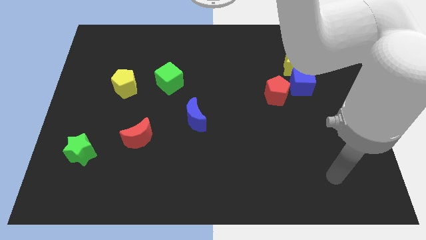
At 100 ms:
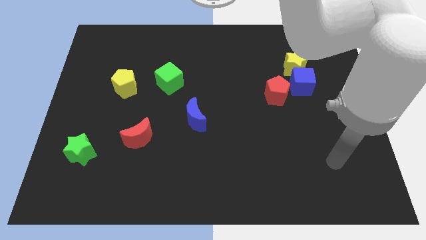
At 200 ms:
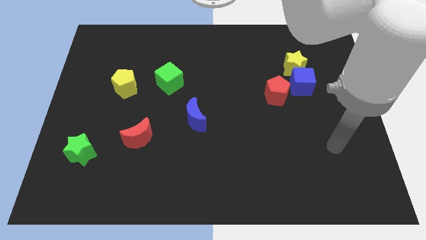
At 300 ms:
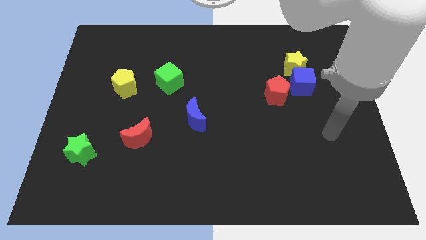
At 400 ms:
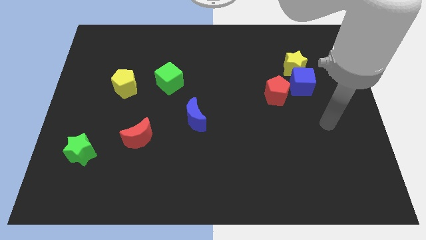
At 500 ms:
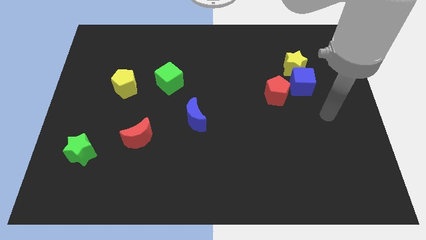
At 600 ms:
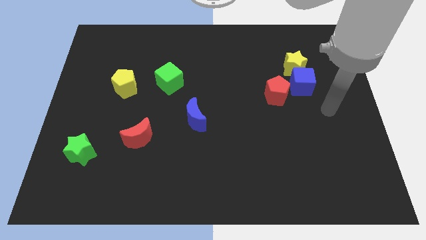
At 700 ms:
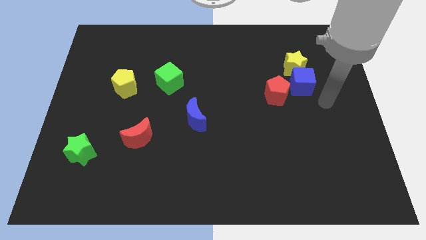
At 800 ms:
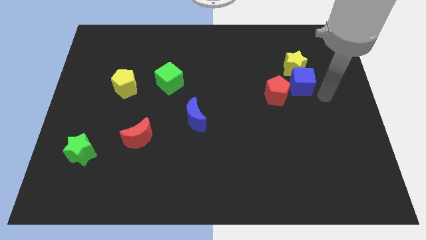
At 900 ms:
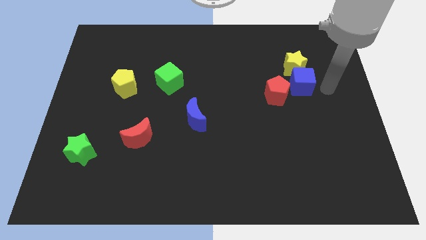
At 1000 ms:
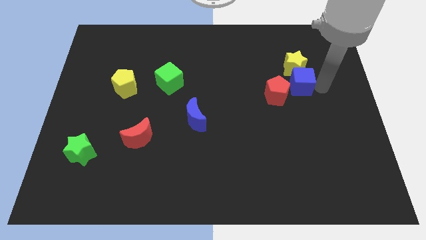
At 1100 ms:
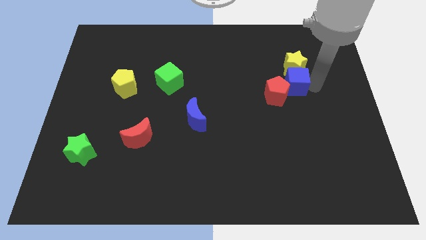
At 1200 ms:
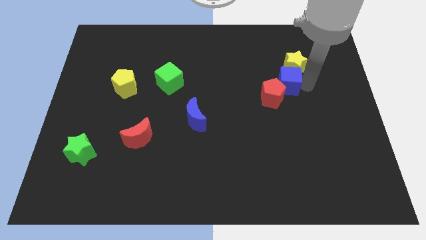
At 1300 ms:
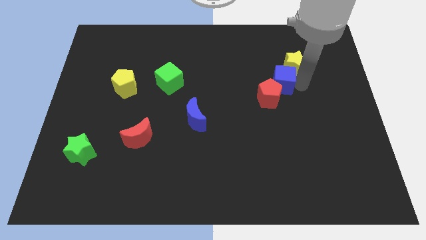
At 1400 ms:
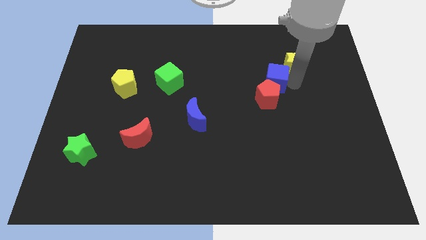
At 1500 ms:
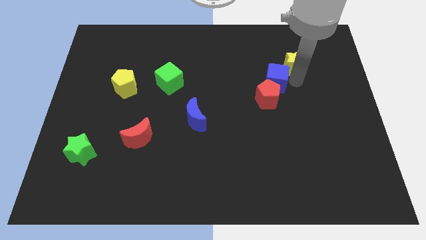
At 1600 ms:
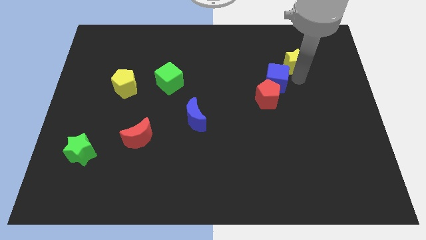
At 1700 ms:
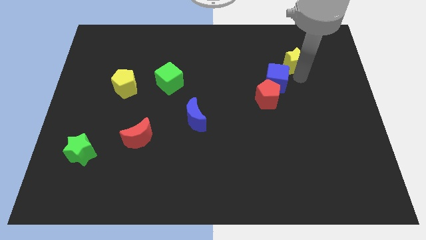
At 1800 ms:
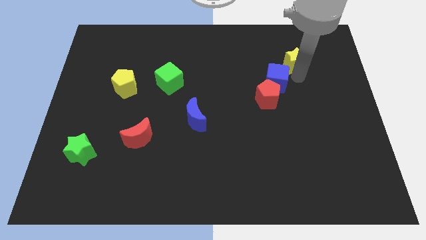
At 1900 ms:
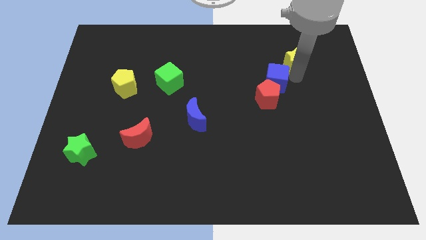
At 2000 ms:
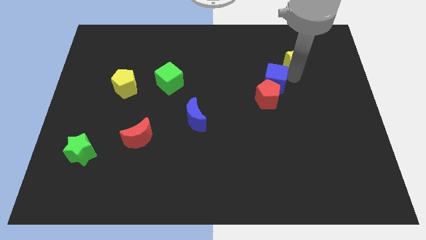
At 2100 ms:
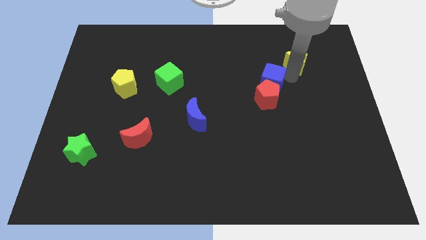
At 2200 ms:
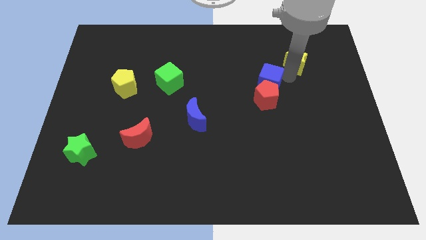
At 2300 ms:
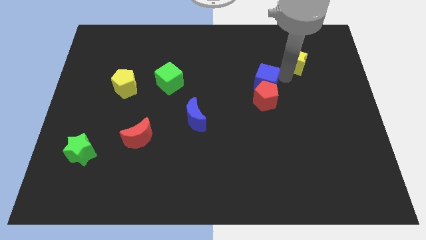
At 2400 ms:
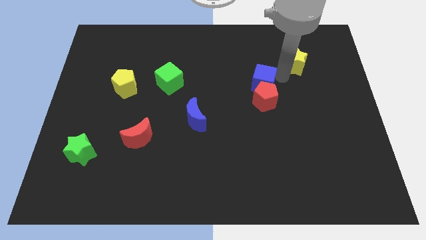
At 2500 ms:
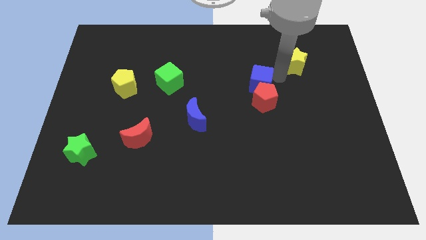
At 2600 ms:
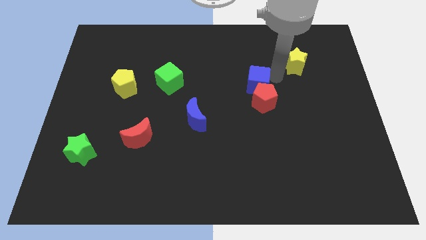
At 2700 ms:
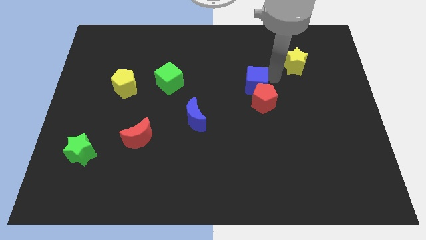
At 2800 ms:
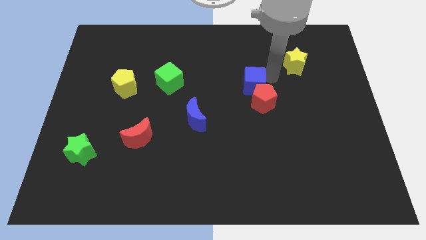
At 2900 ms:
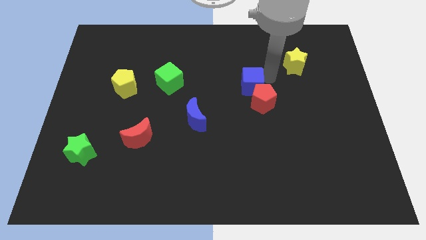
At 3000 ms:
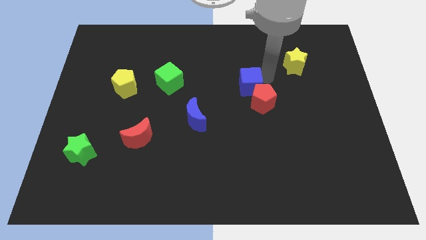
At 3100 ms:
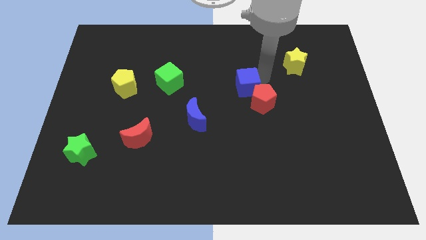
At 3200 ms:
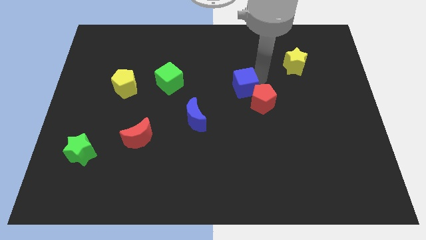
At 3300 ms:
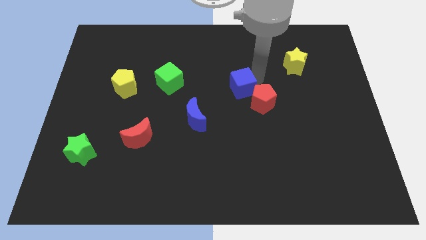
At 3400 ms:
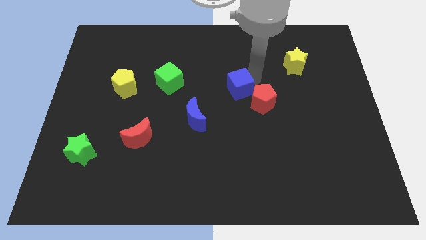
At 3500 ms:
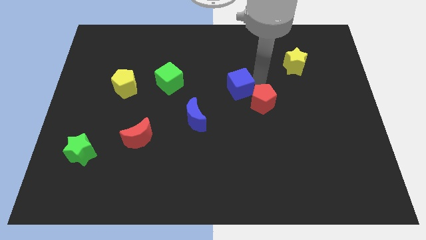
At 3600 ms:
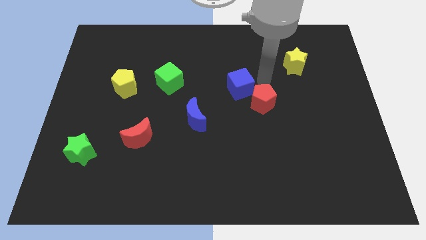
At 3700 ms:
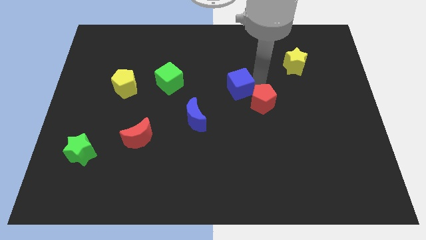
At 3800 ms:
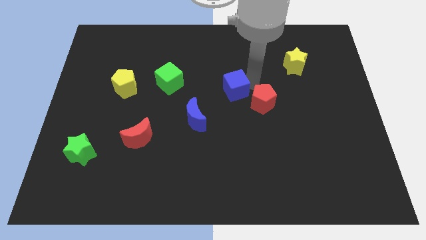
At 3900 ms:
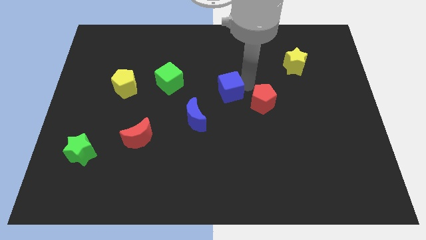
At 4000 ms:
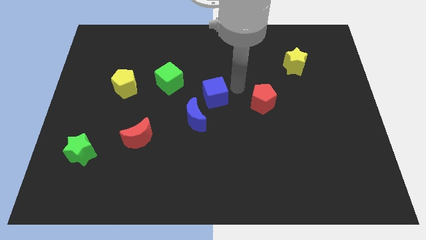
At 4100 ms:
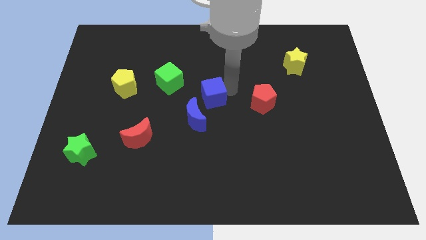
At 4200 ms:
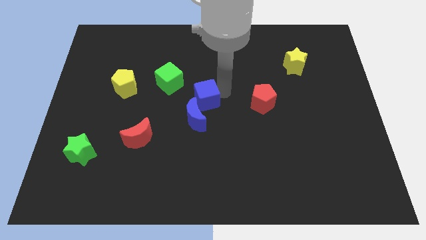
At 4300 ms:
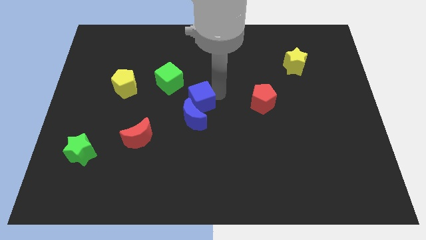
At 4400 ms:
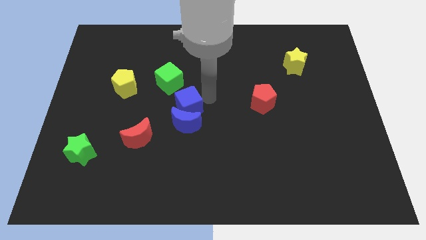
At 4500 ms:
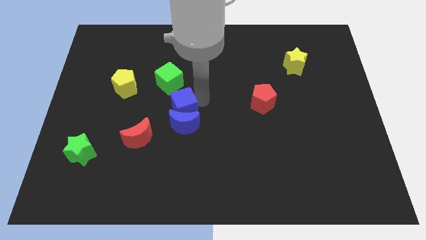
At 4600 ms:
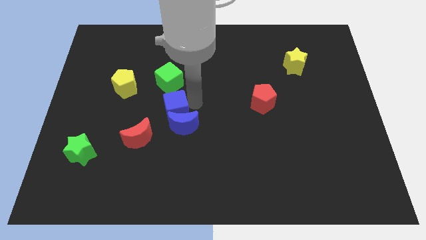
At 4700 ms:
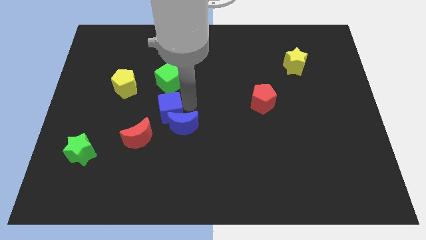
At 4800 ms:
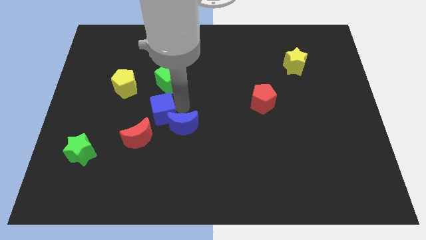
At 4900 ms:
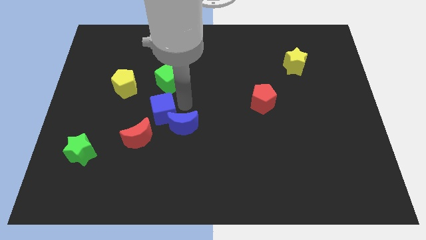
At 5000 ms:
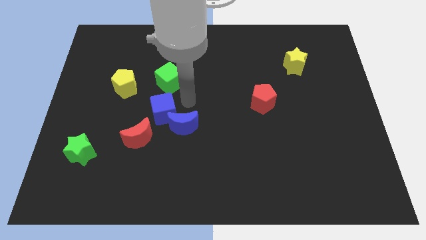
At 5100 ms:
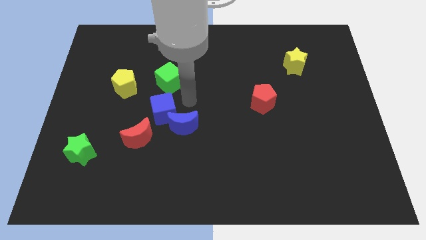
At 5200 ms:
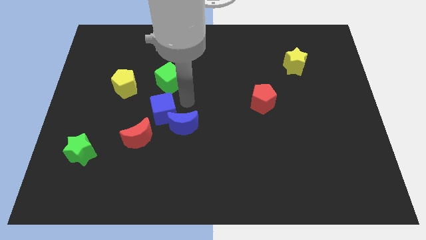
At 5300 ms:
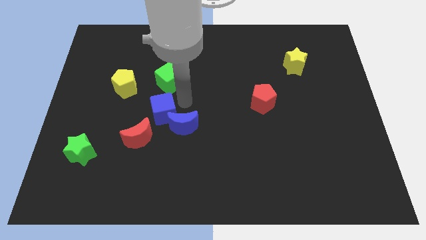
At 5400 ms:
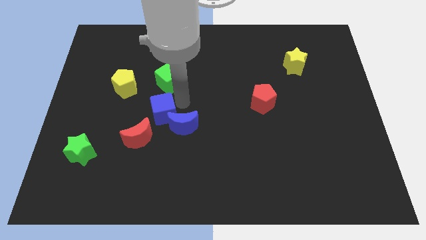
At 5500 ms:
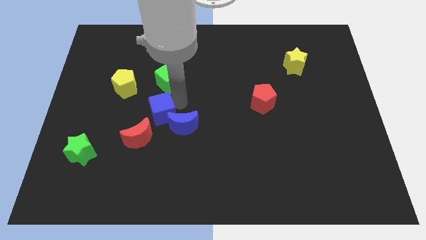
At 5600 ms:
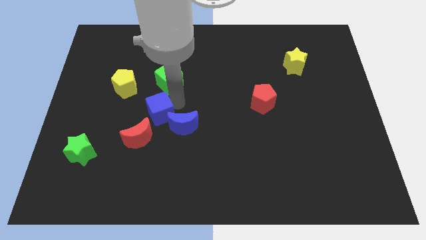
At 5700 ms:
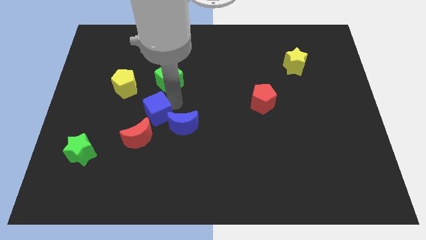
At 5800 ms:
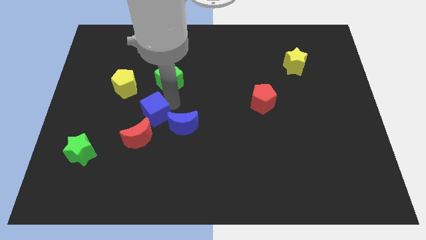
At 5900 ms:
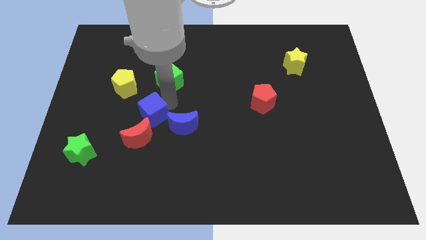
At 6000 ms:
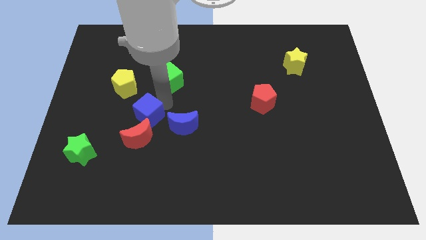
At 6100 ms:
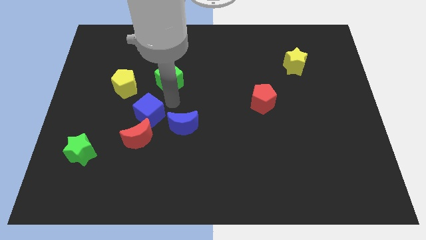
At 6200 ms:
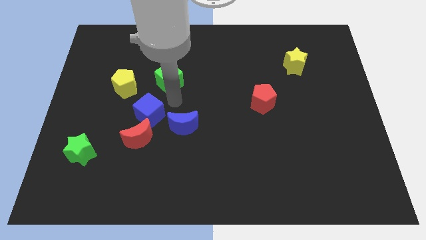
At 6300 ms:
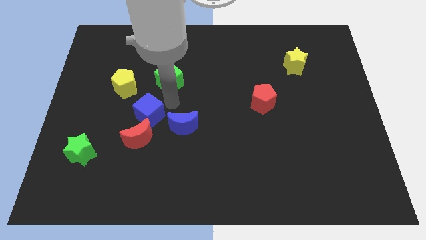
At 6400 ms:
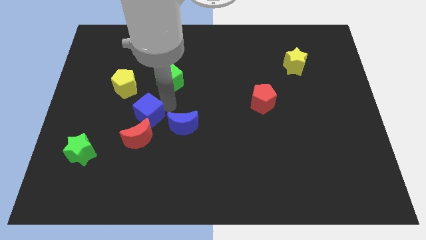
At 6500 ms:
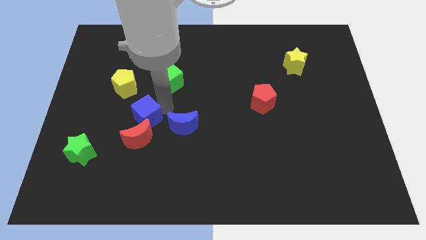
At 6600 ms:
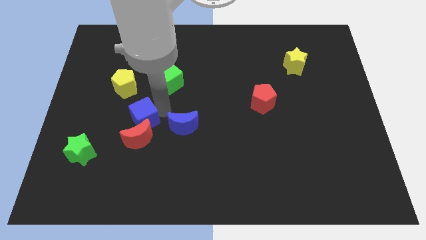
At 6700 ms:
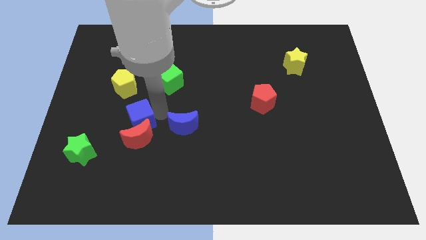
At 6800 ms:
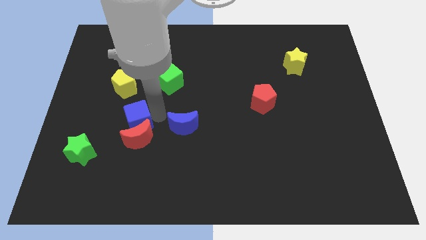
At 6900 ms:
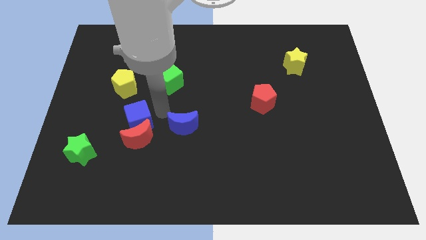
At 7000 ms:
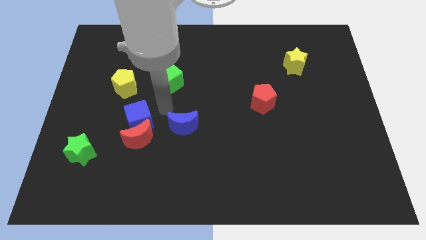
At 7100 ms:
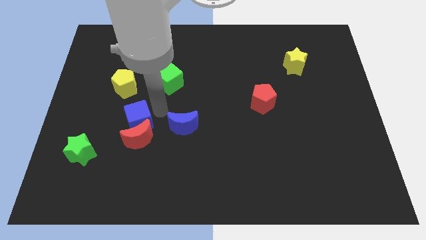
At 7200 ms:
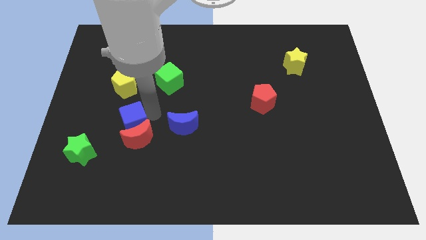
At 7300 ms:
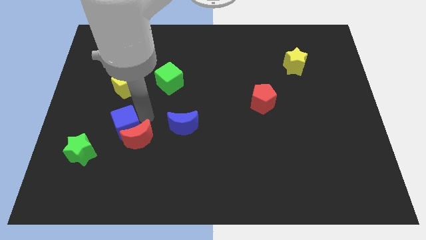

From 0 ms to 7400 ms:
slide the blue cube to the top right of the green star

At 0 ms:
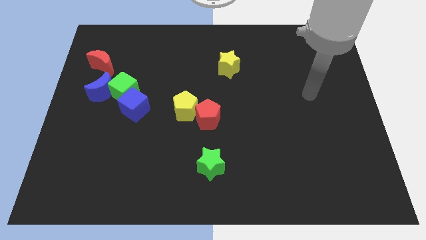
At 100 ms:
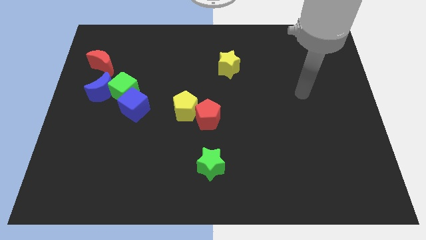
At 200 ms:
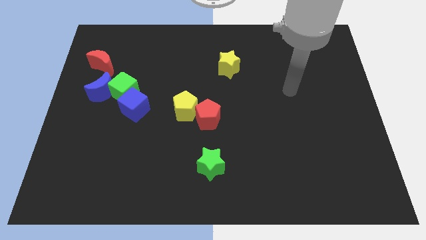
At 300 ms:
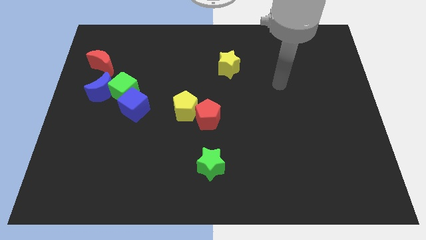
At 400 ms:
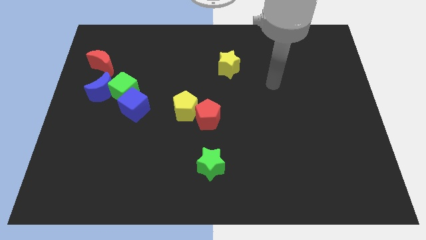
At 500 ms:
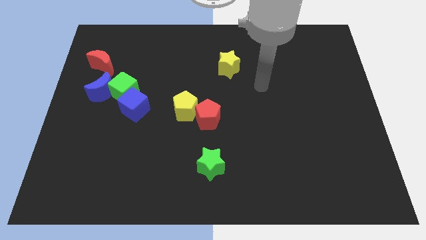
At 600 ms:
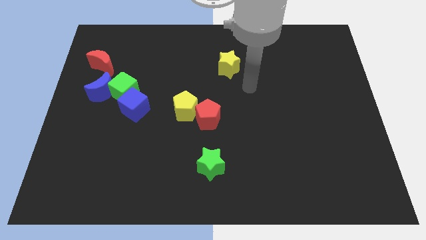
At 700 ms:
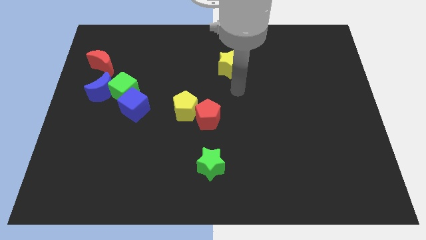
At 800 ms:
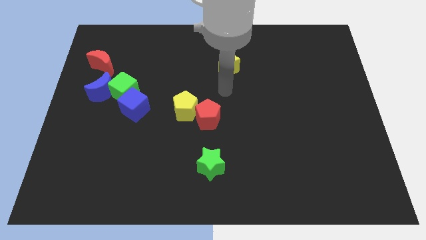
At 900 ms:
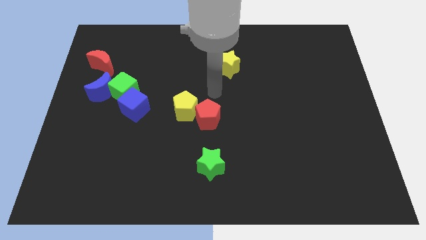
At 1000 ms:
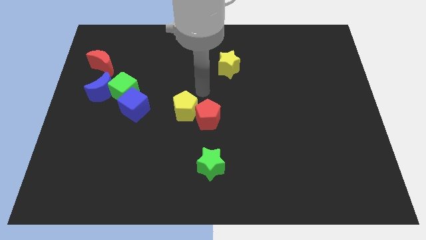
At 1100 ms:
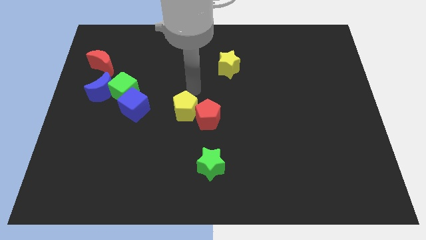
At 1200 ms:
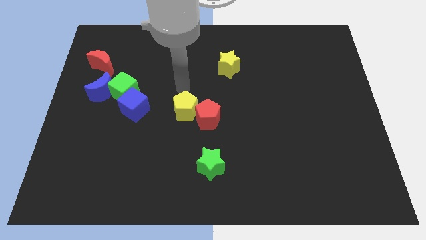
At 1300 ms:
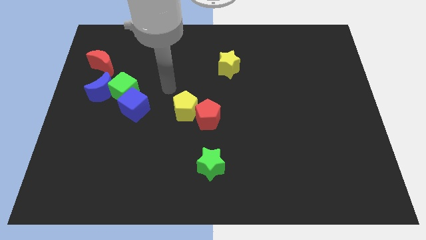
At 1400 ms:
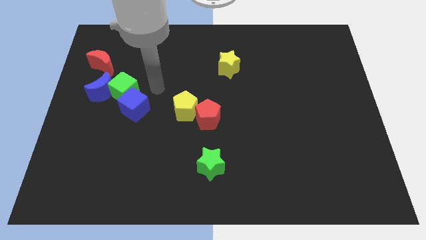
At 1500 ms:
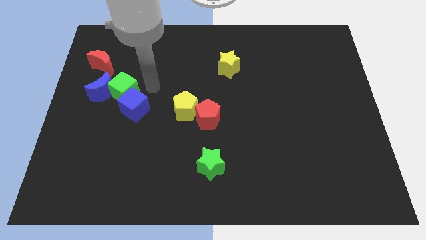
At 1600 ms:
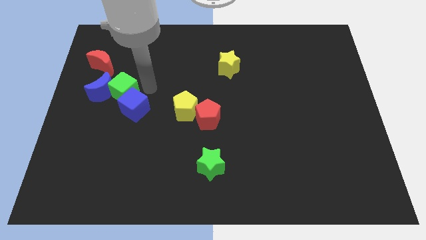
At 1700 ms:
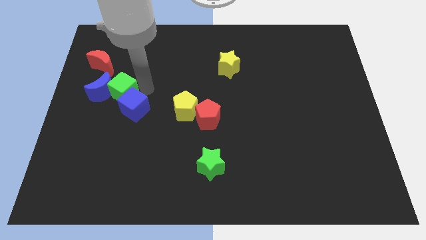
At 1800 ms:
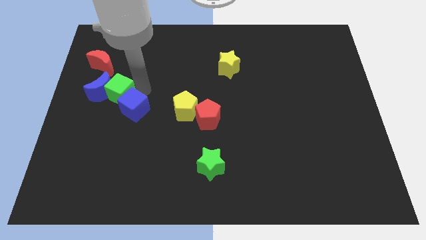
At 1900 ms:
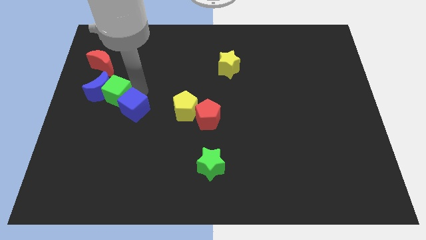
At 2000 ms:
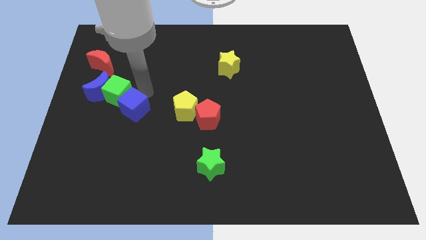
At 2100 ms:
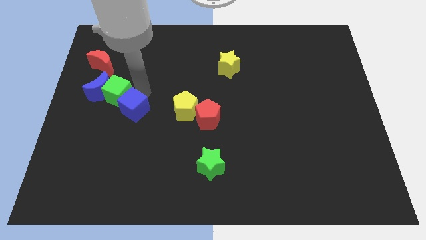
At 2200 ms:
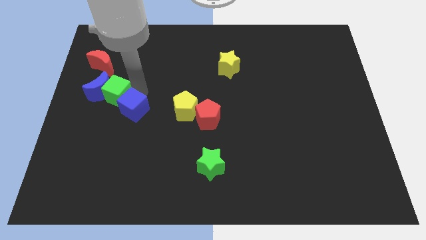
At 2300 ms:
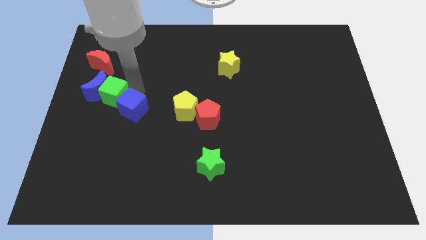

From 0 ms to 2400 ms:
slide the green cube to the bottom side of the red moon
